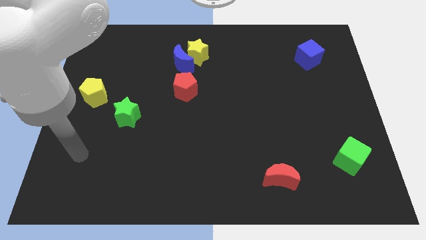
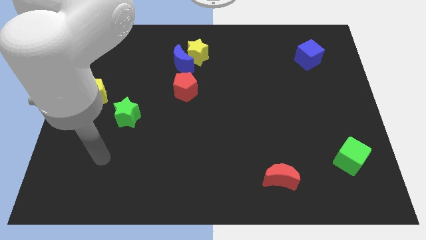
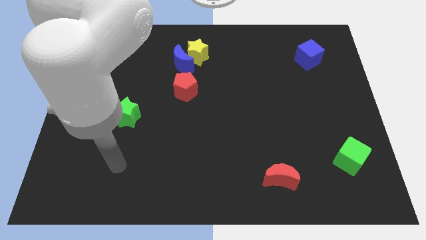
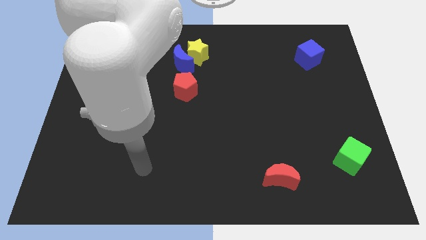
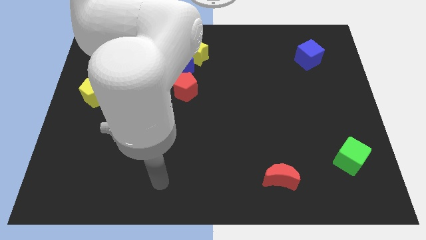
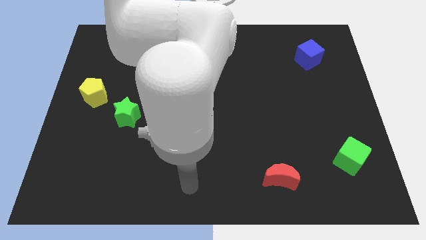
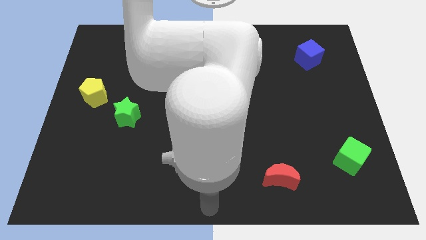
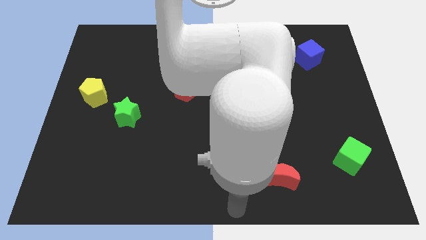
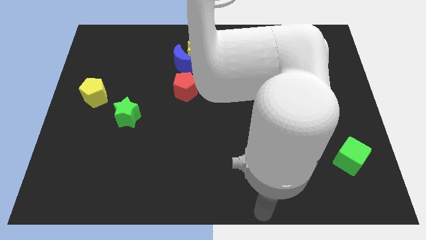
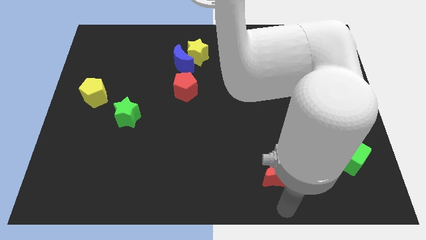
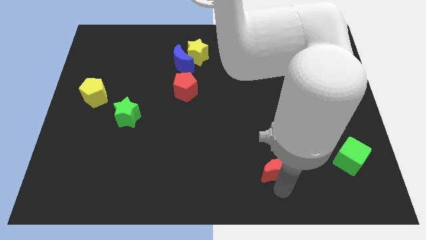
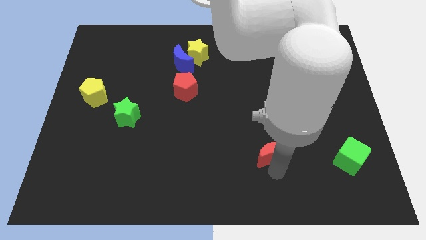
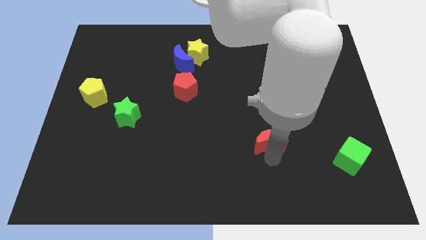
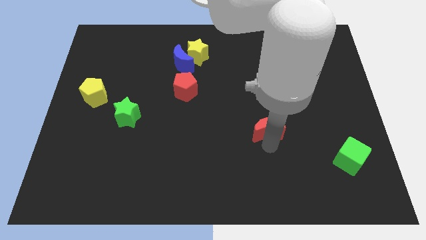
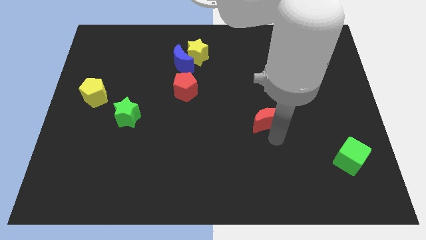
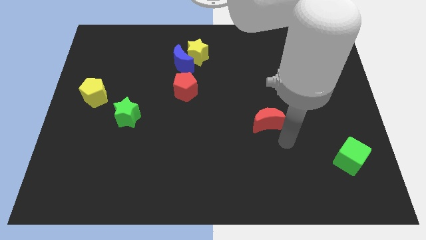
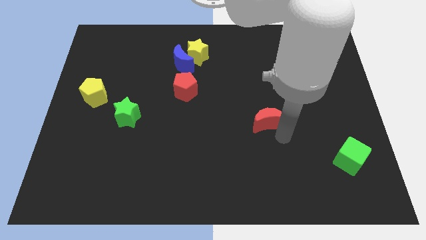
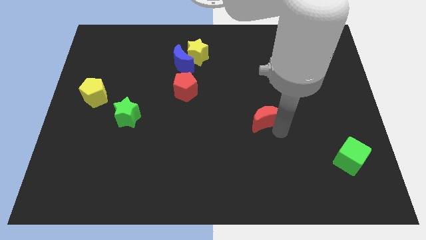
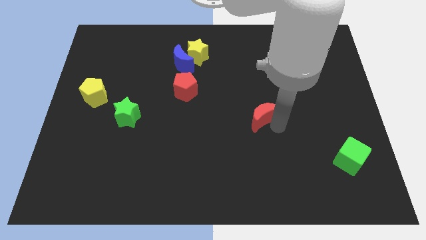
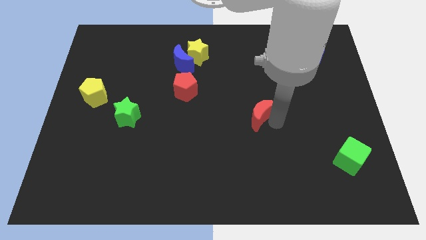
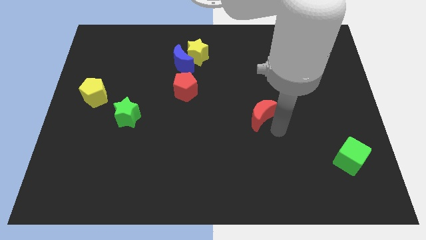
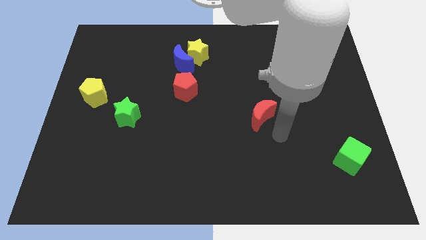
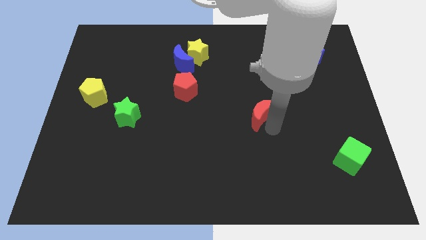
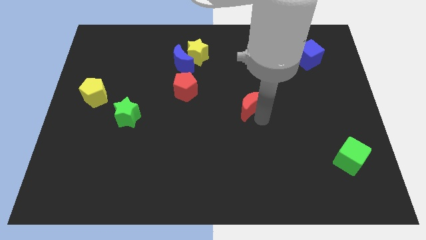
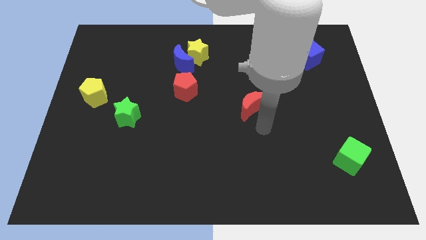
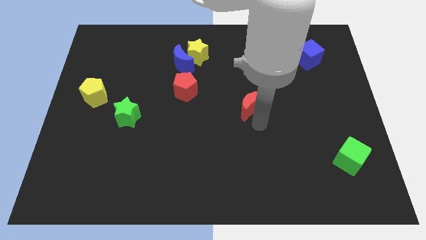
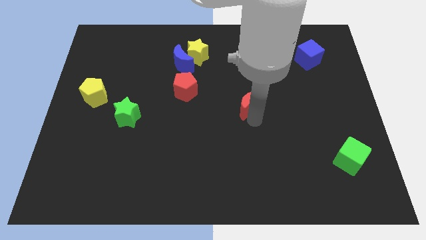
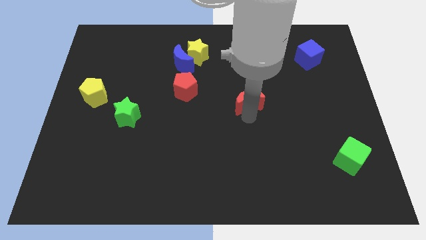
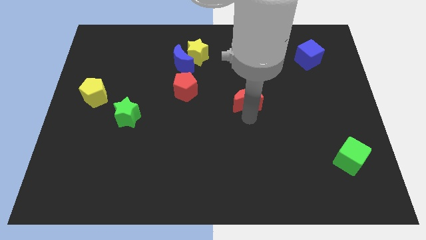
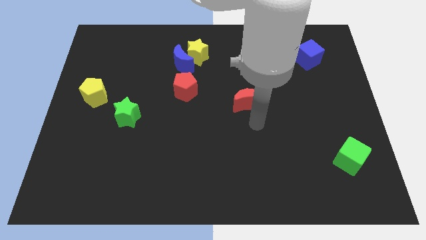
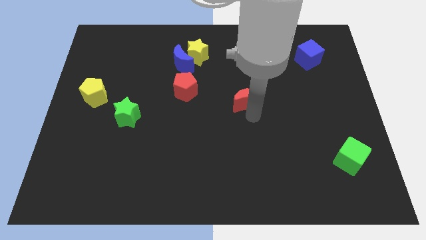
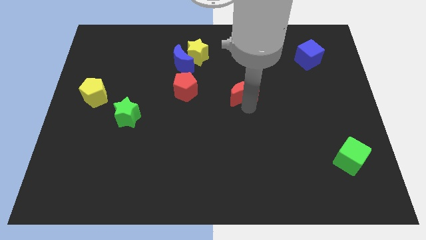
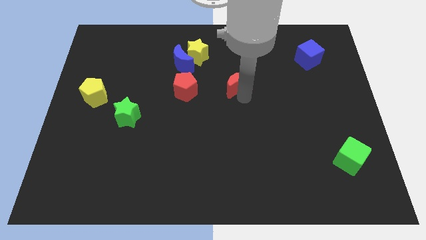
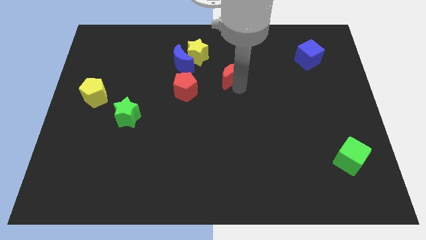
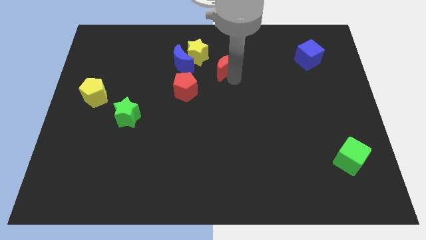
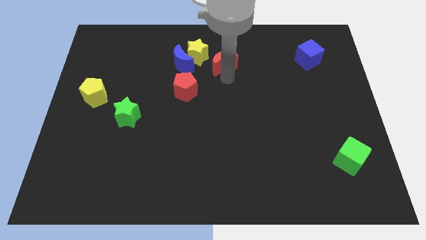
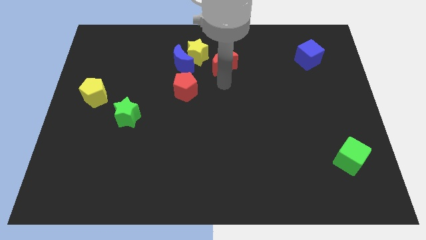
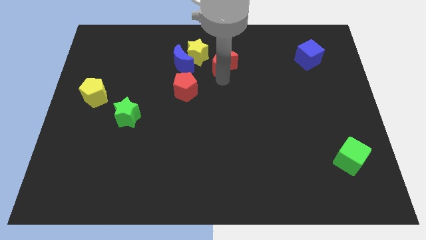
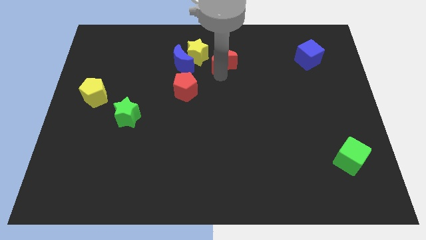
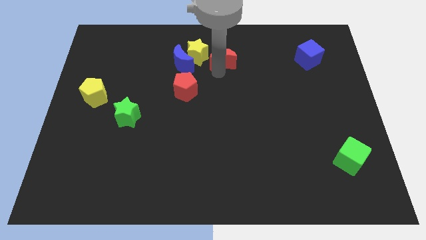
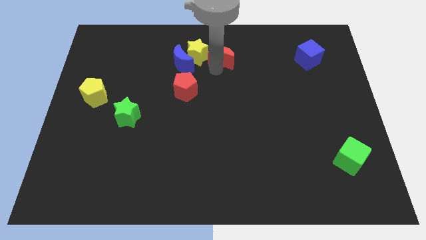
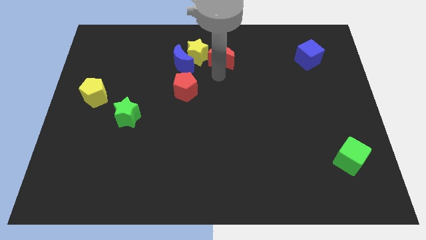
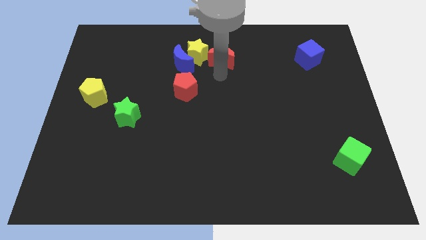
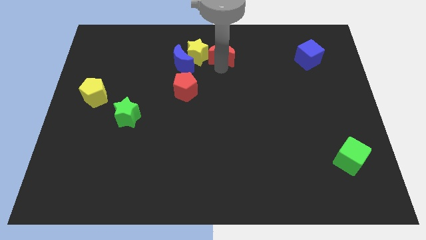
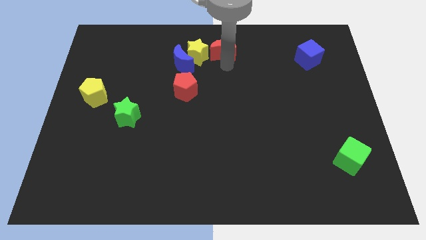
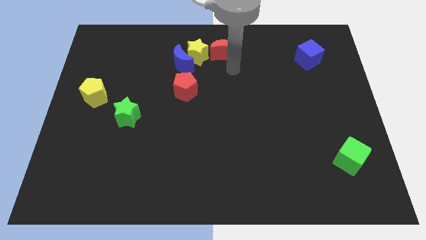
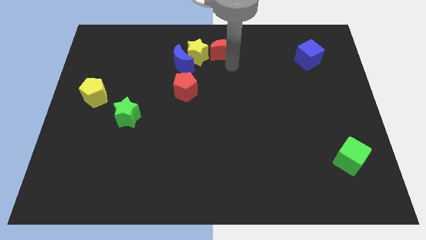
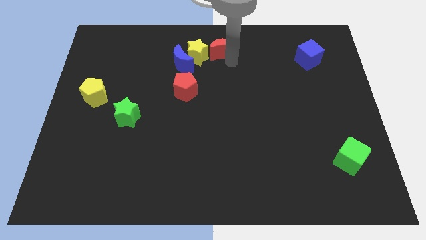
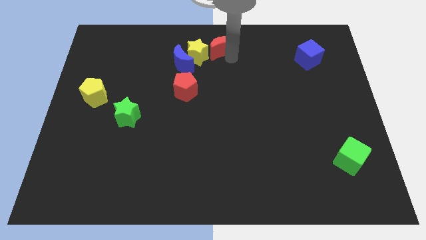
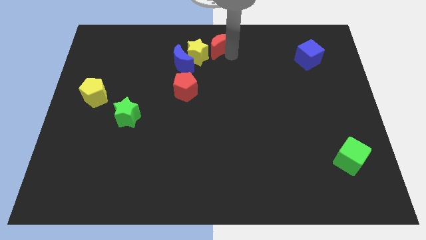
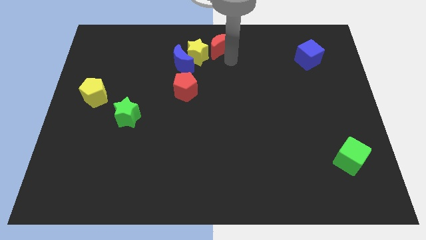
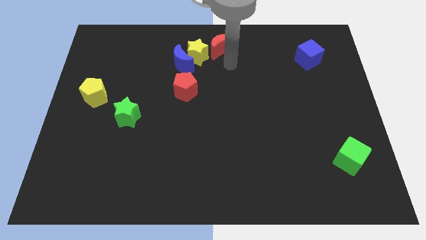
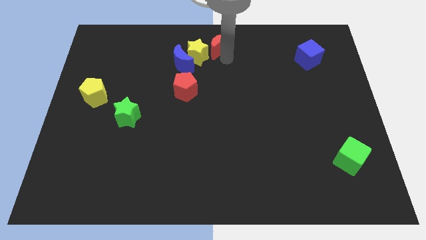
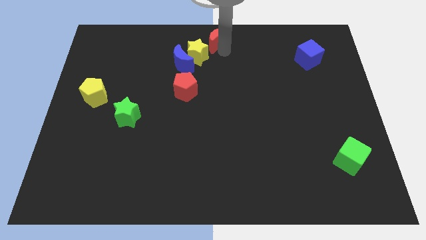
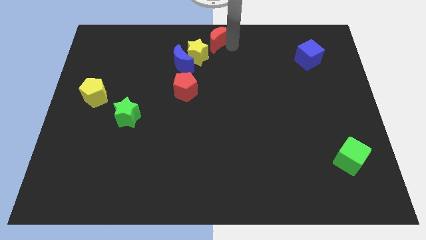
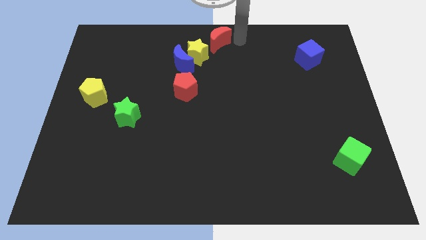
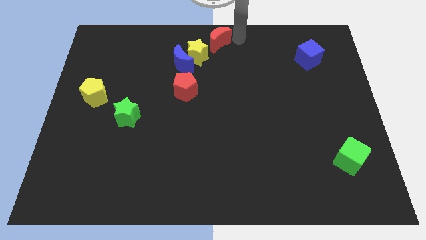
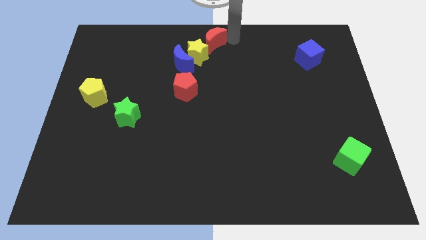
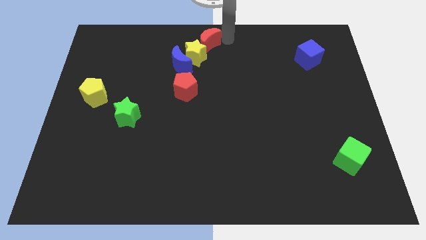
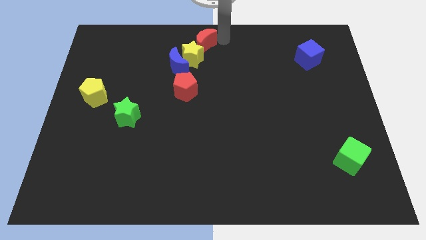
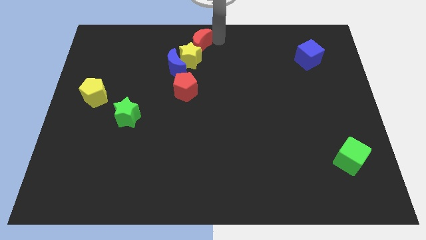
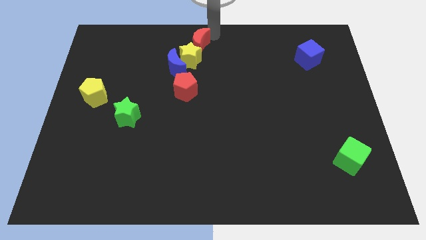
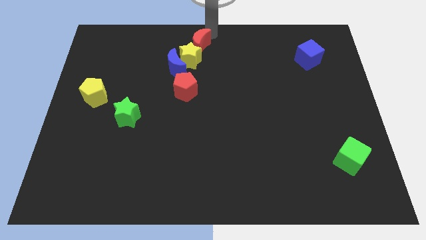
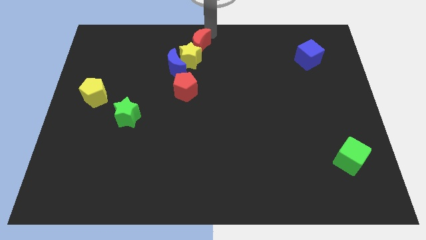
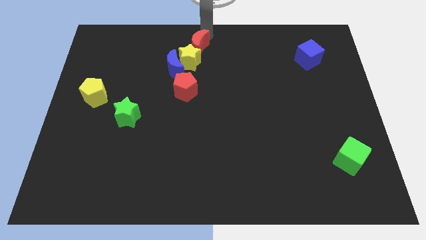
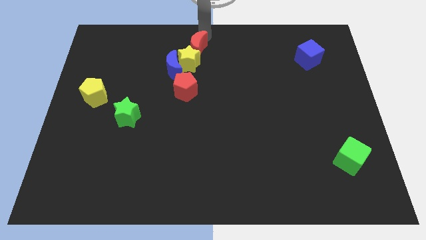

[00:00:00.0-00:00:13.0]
move the red moon above the red pentagon

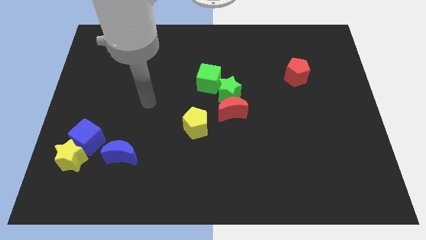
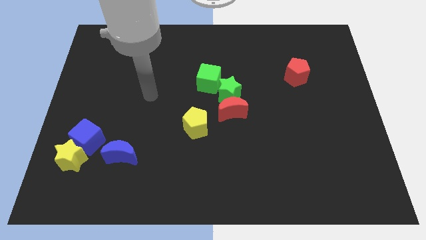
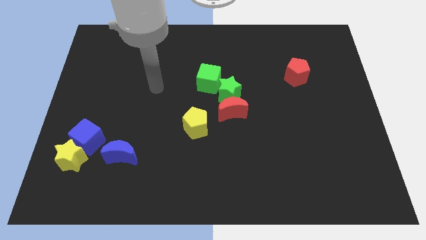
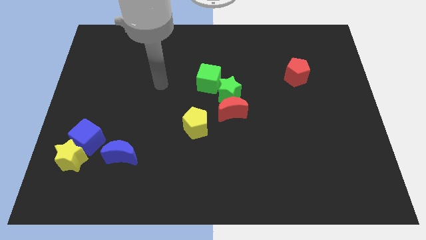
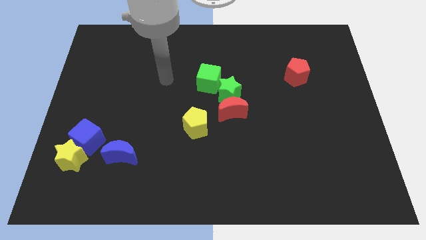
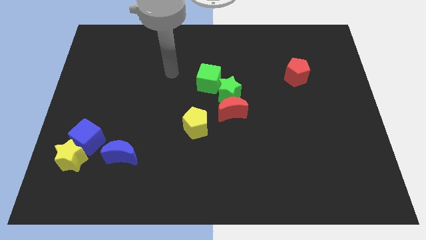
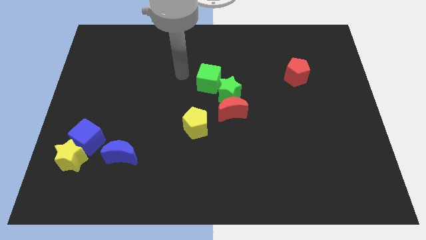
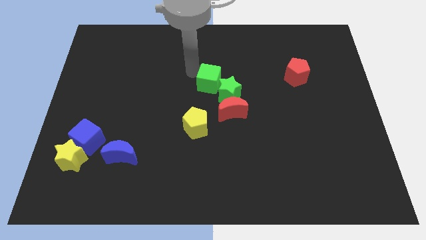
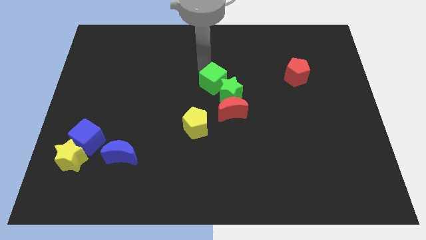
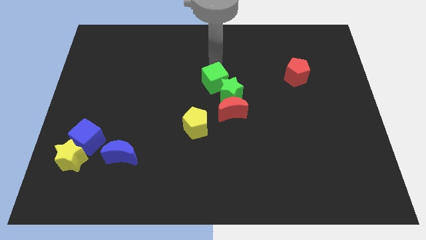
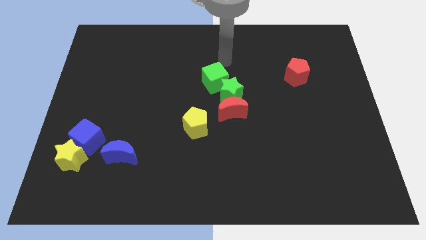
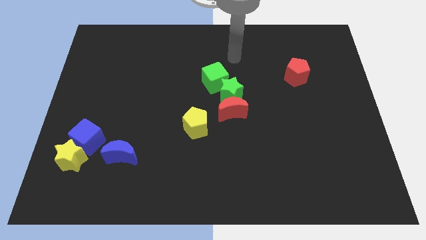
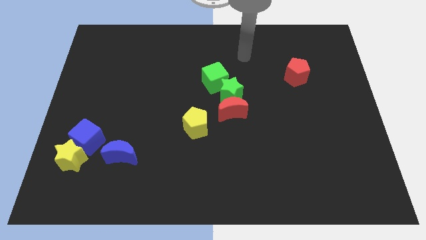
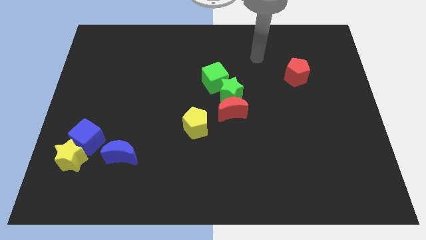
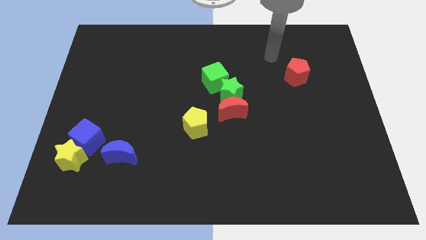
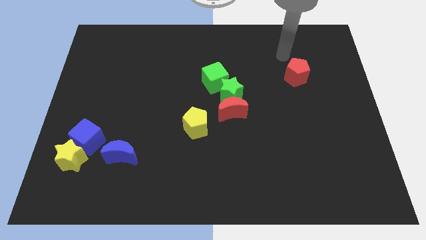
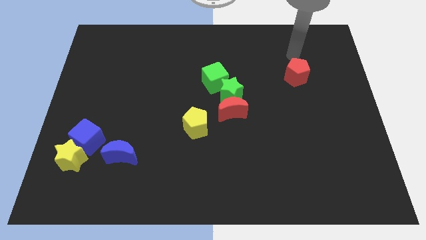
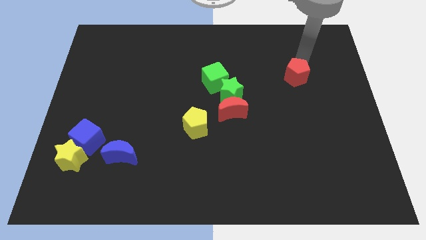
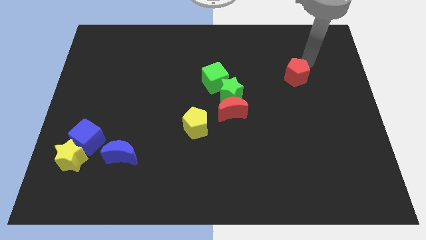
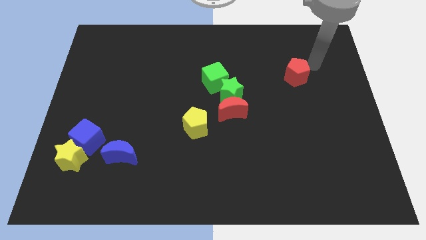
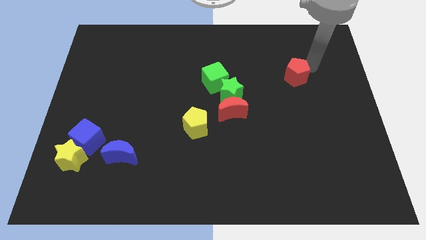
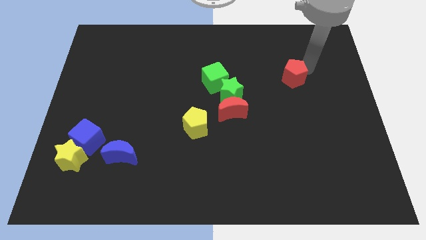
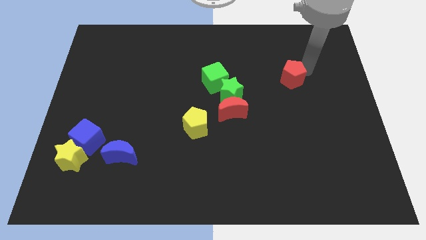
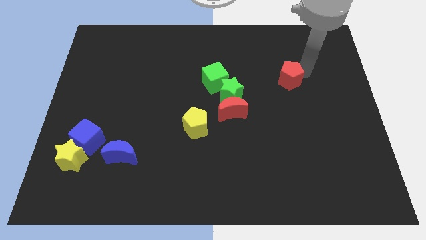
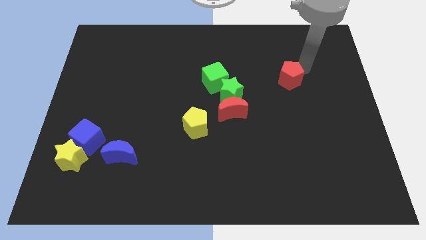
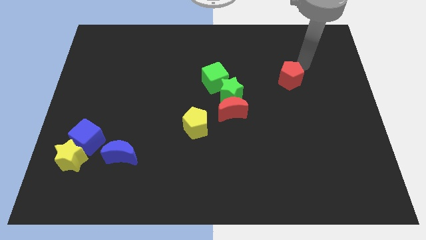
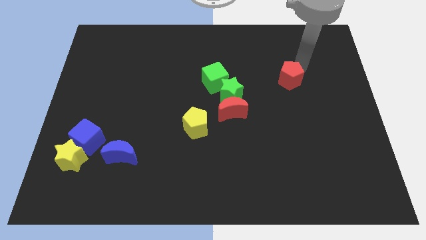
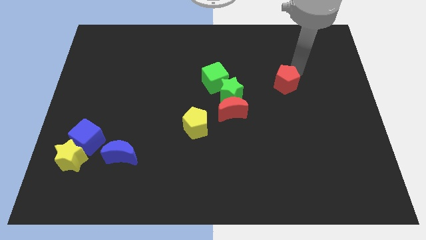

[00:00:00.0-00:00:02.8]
move the red pentagon just right of the green star
